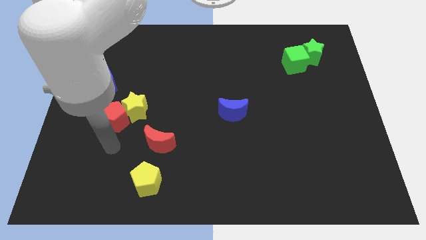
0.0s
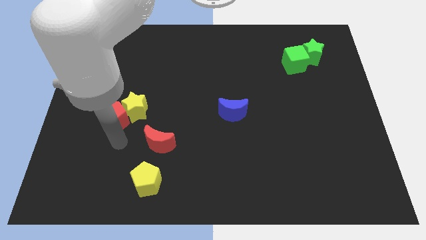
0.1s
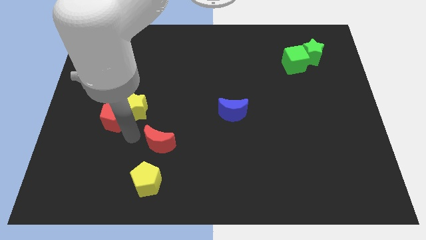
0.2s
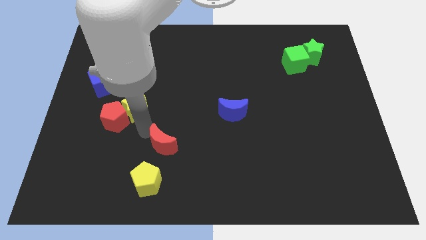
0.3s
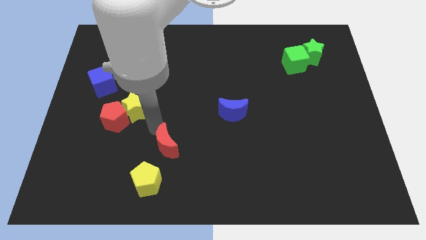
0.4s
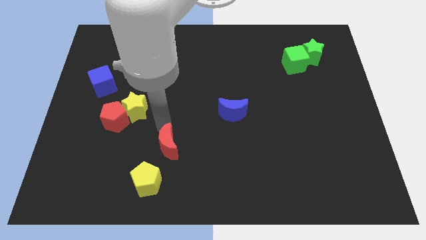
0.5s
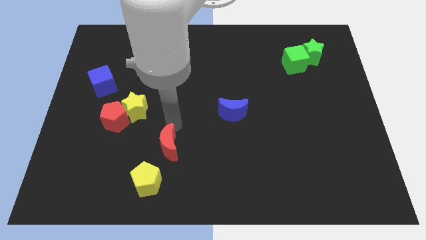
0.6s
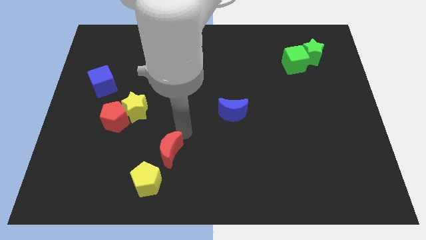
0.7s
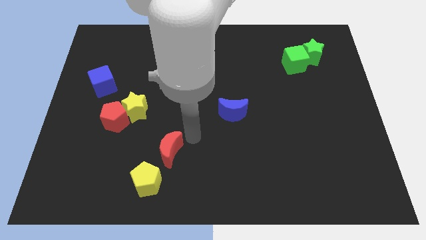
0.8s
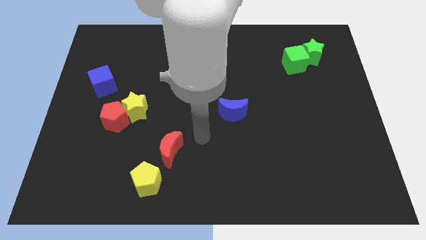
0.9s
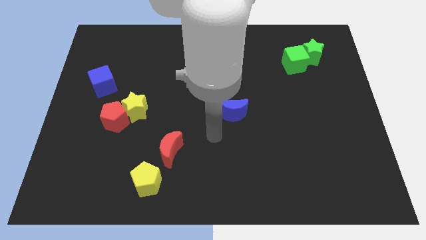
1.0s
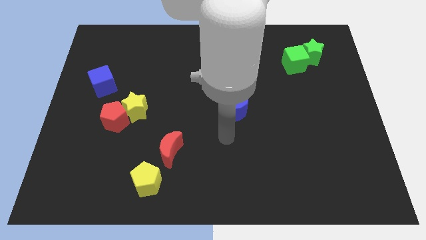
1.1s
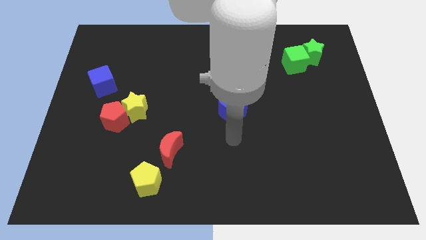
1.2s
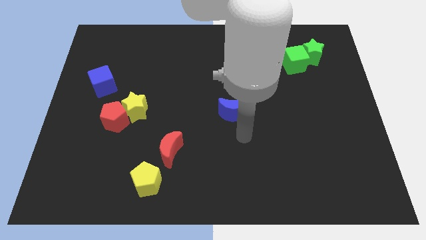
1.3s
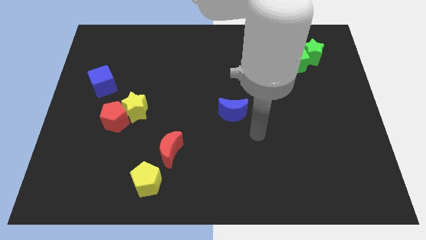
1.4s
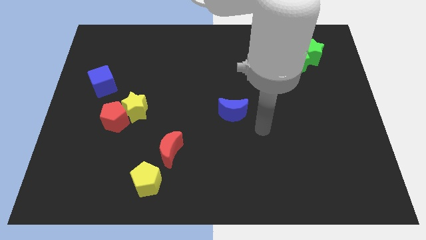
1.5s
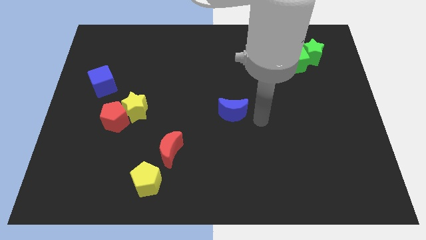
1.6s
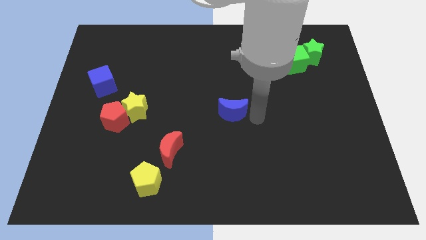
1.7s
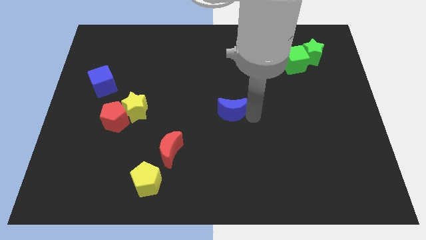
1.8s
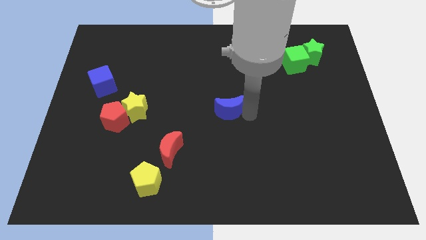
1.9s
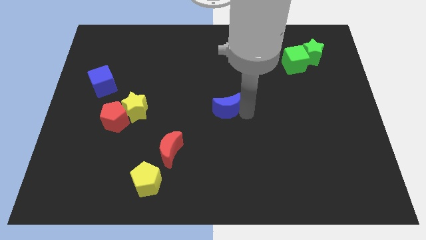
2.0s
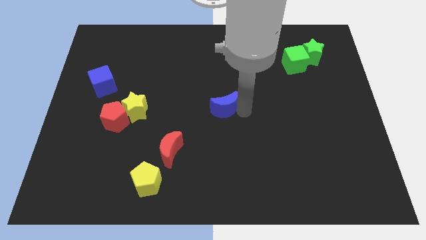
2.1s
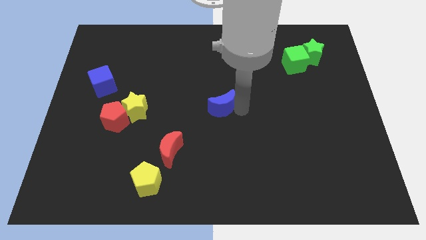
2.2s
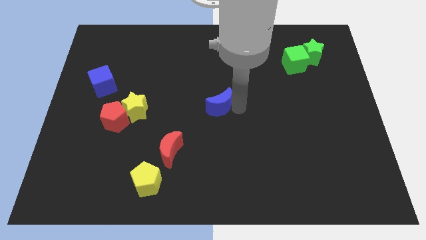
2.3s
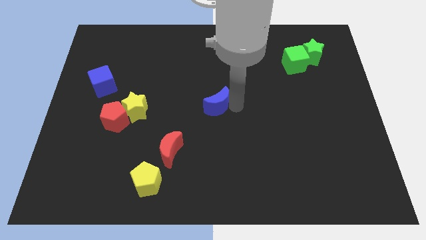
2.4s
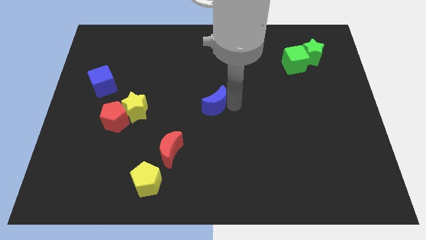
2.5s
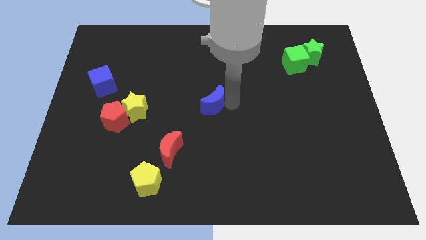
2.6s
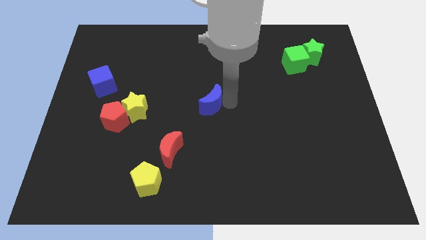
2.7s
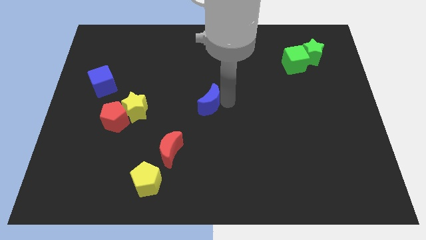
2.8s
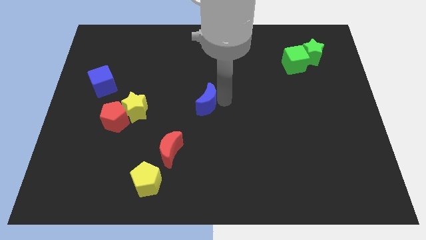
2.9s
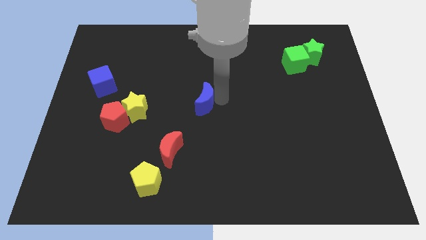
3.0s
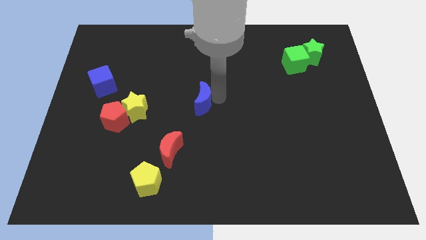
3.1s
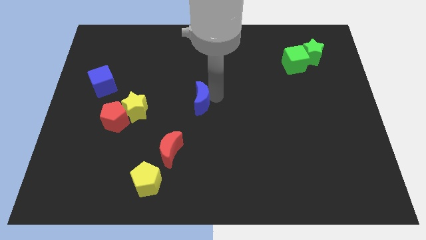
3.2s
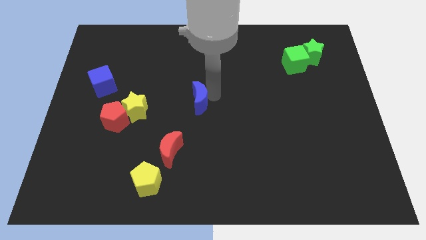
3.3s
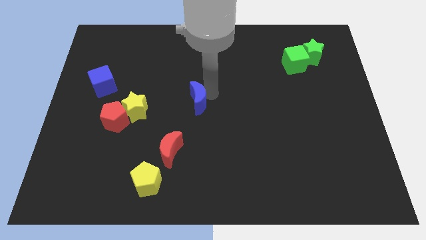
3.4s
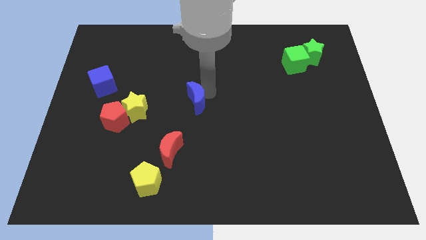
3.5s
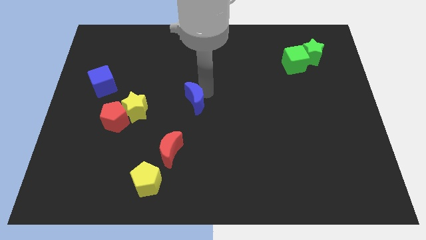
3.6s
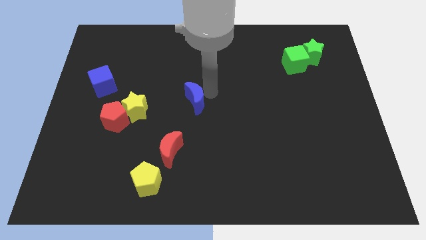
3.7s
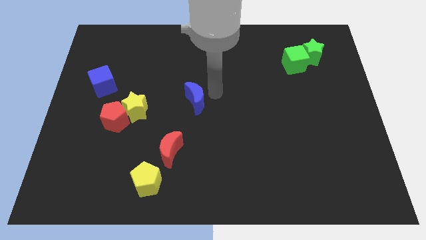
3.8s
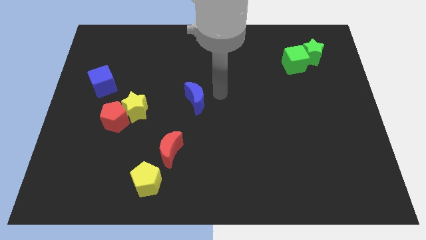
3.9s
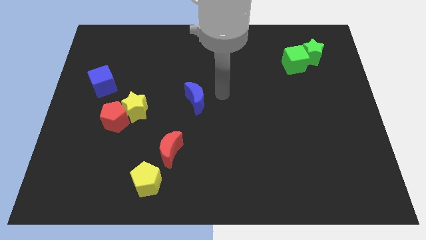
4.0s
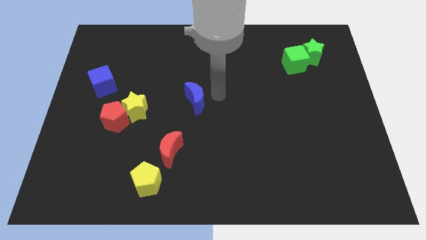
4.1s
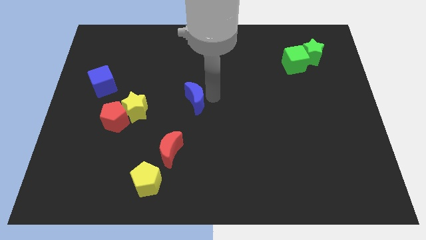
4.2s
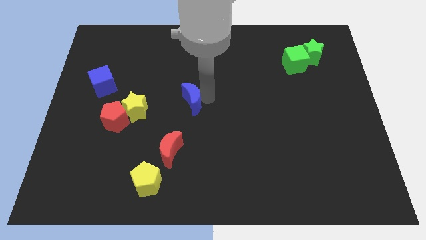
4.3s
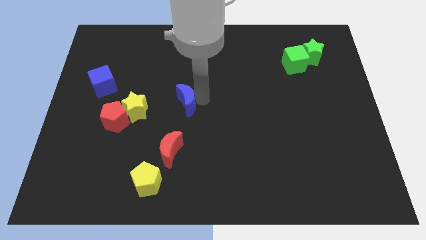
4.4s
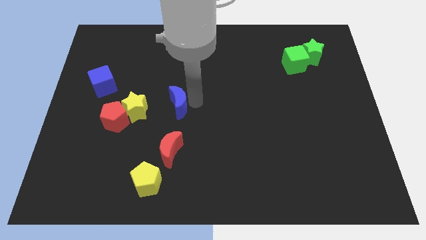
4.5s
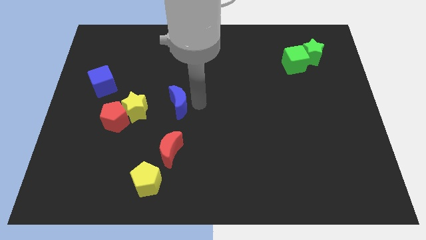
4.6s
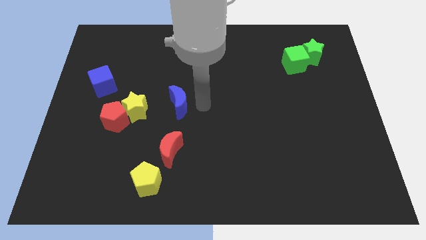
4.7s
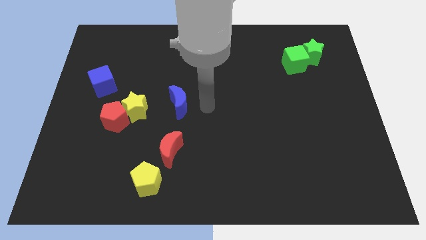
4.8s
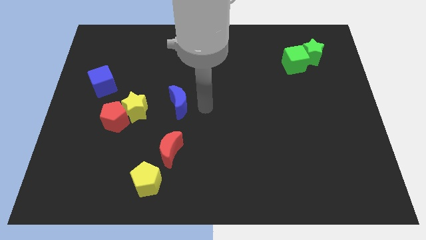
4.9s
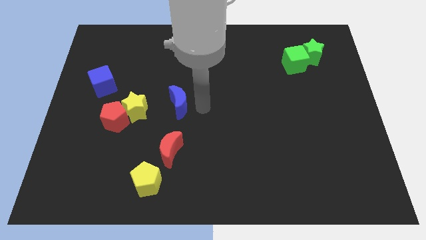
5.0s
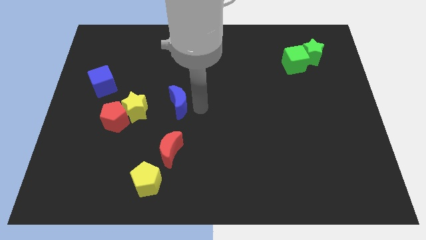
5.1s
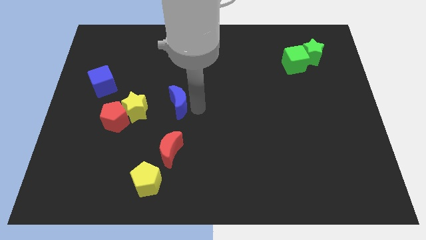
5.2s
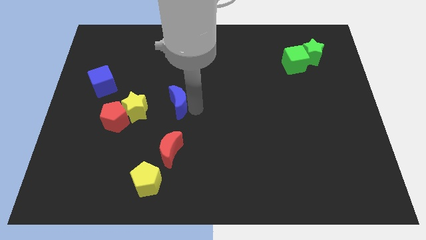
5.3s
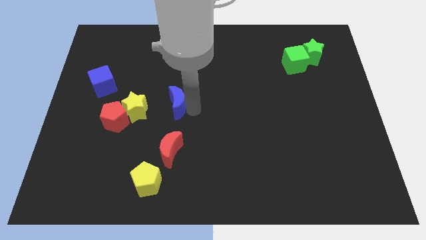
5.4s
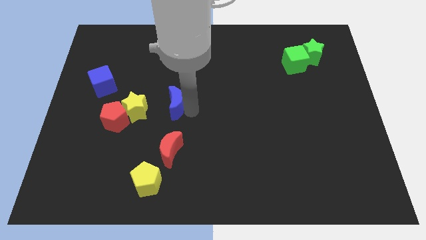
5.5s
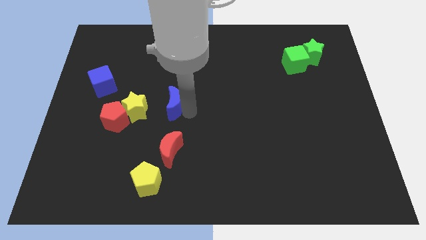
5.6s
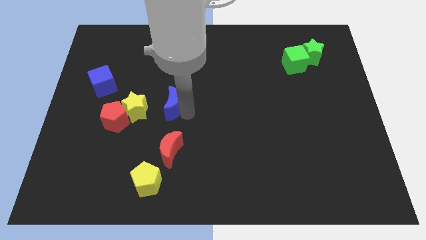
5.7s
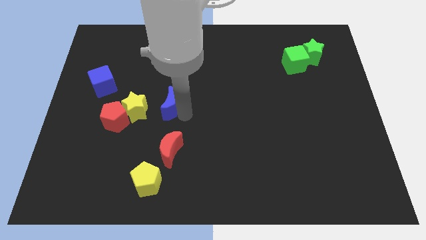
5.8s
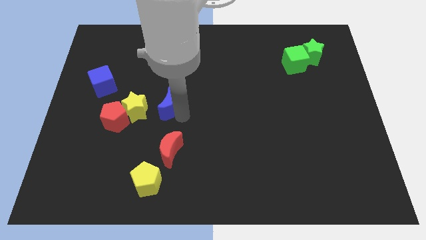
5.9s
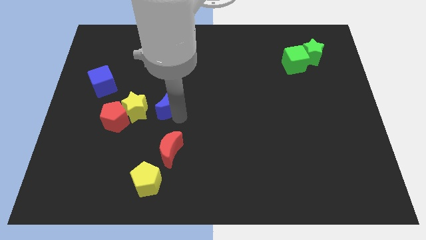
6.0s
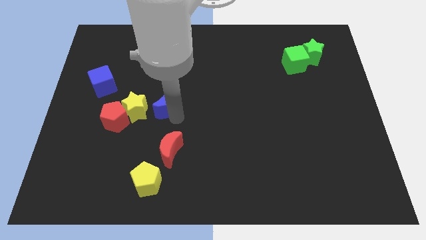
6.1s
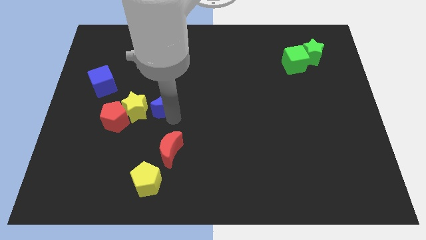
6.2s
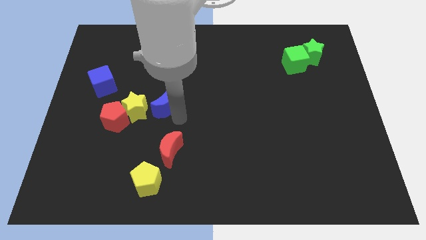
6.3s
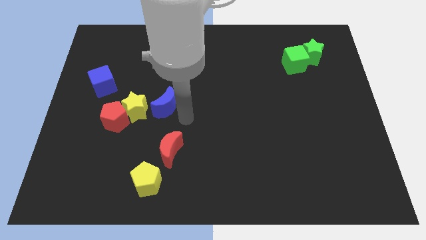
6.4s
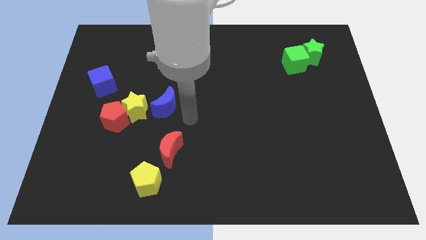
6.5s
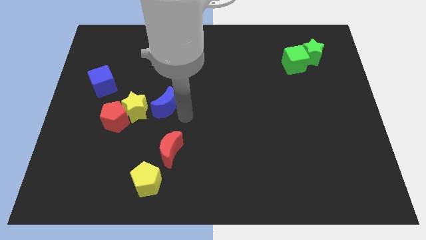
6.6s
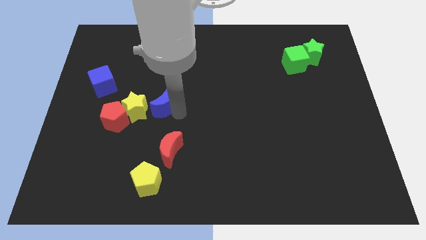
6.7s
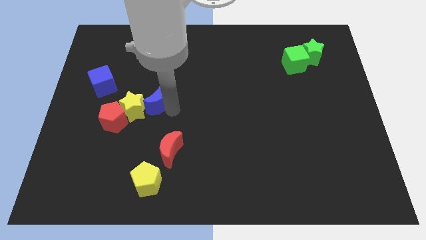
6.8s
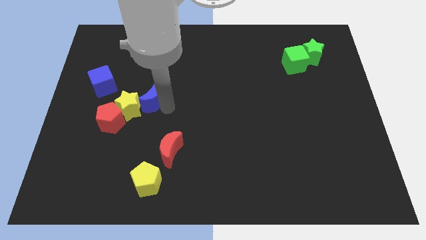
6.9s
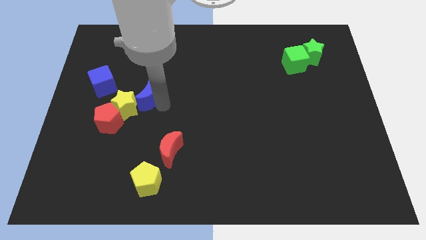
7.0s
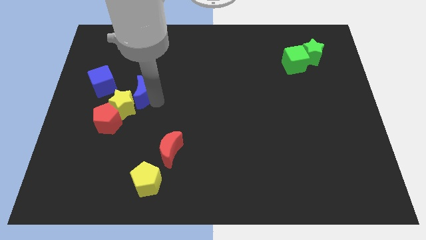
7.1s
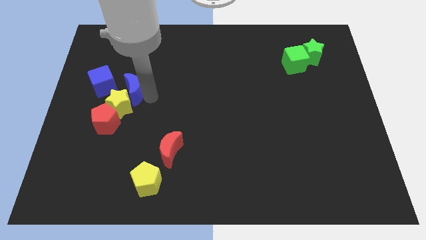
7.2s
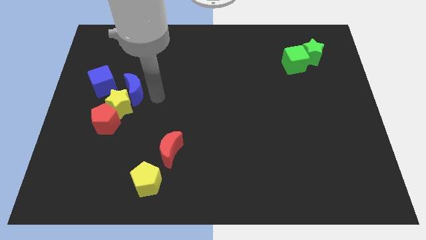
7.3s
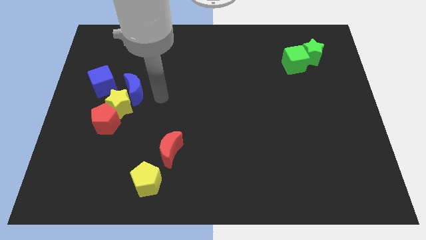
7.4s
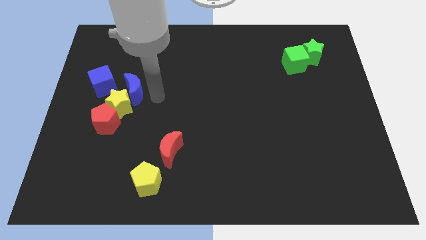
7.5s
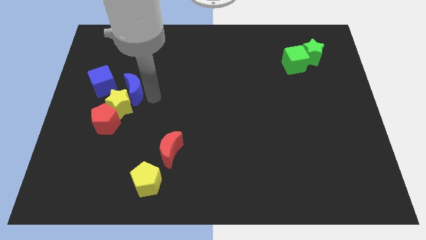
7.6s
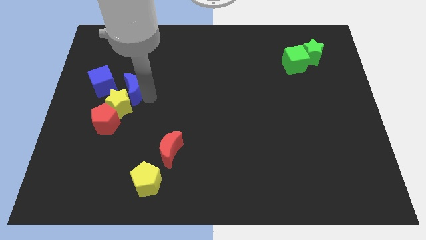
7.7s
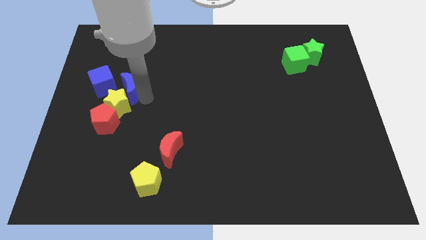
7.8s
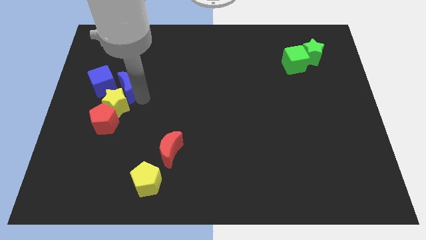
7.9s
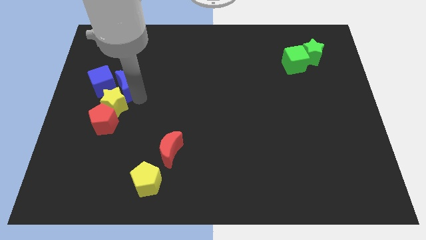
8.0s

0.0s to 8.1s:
move the blue moon towards the blue cube
